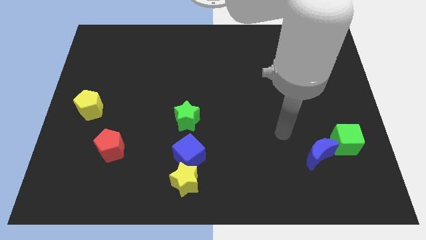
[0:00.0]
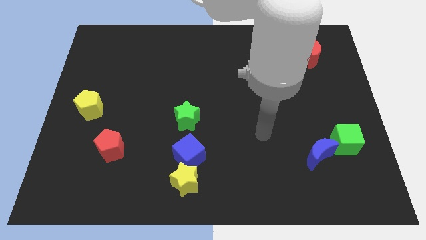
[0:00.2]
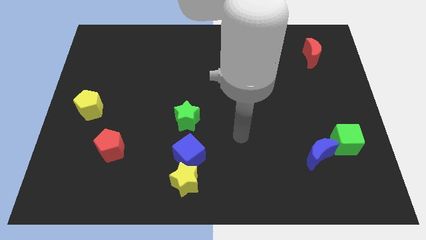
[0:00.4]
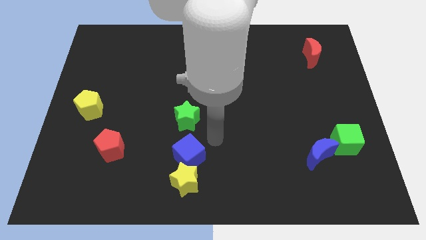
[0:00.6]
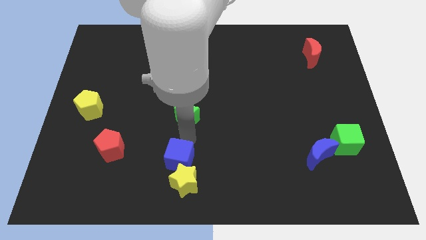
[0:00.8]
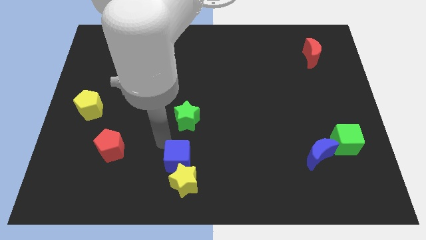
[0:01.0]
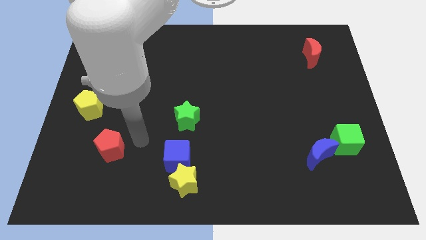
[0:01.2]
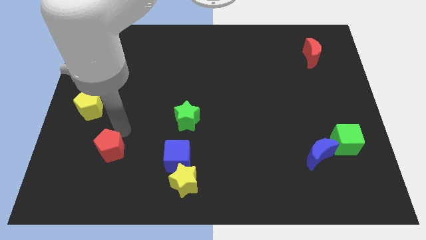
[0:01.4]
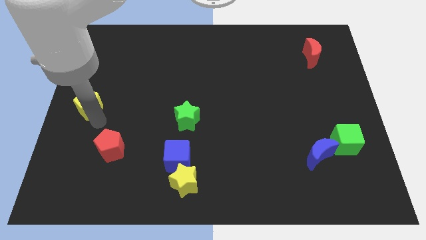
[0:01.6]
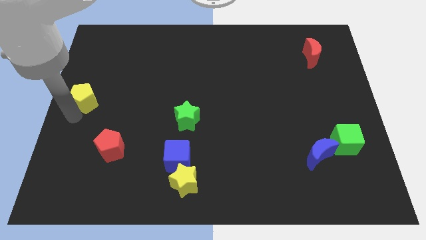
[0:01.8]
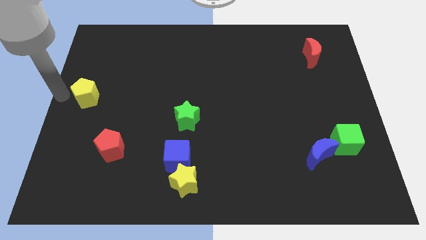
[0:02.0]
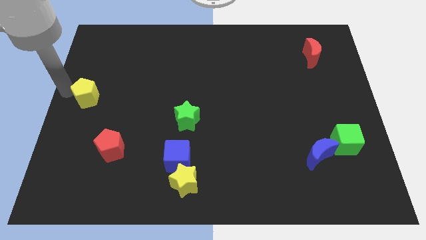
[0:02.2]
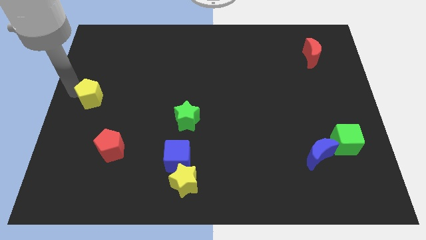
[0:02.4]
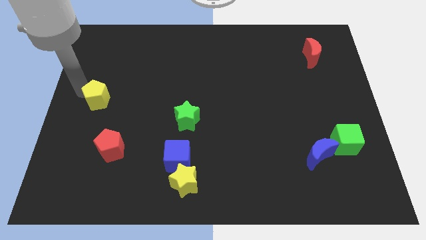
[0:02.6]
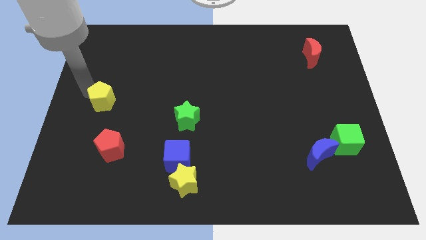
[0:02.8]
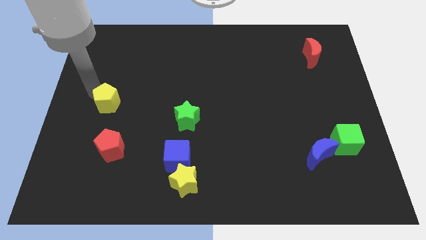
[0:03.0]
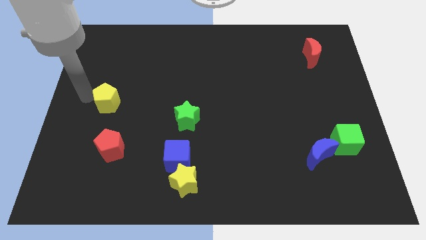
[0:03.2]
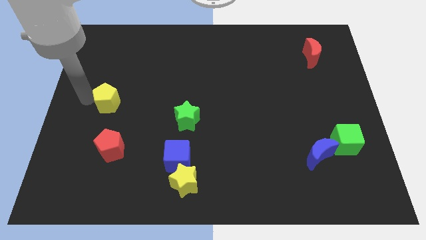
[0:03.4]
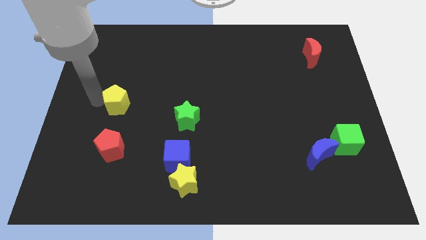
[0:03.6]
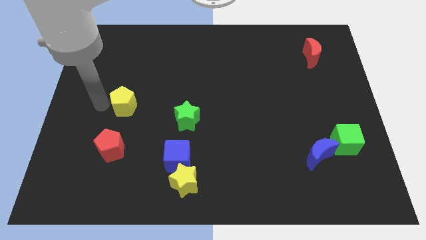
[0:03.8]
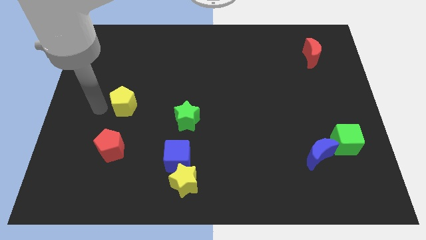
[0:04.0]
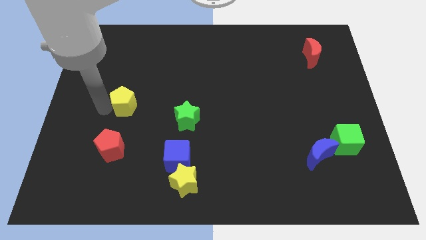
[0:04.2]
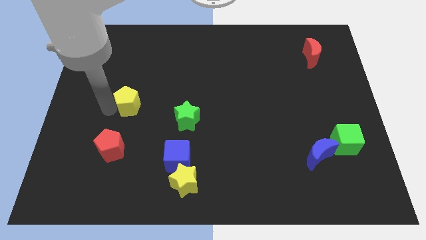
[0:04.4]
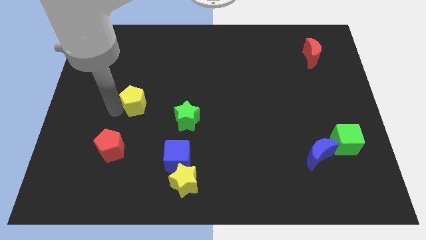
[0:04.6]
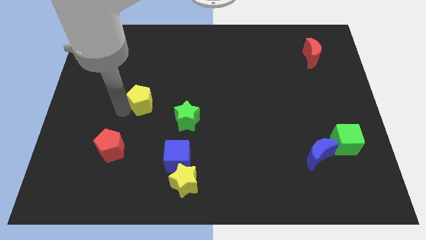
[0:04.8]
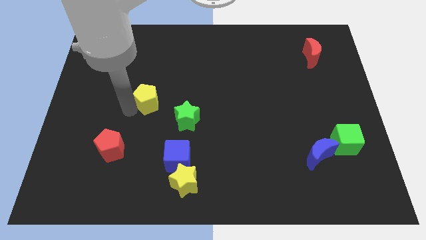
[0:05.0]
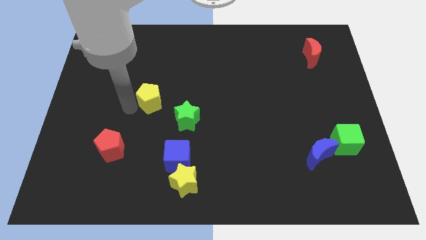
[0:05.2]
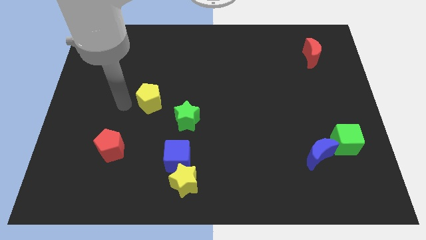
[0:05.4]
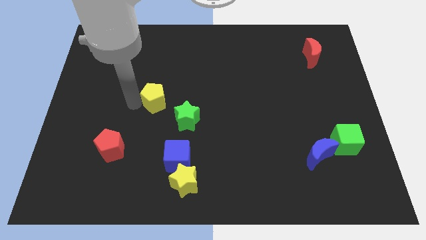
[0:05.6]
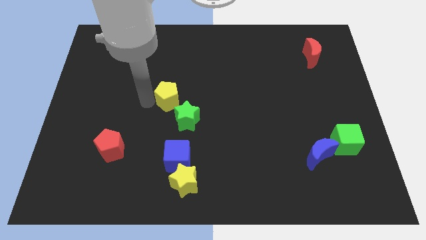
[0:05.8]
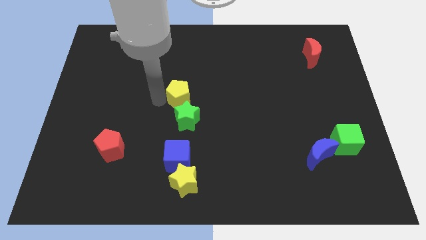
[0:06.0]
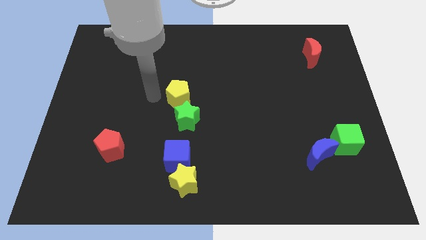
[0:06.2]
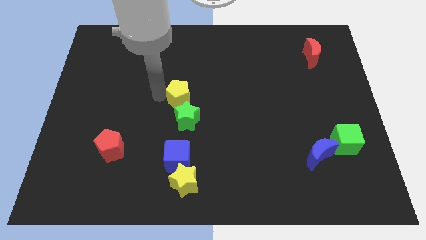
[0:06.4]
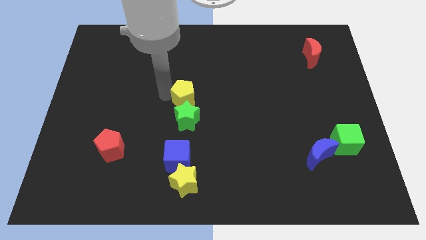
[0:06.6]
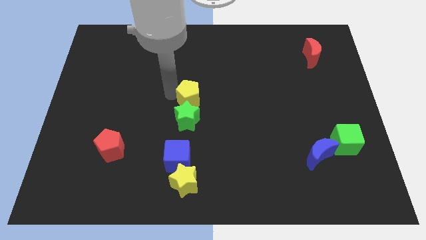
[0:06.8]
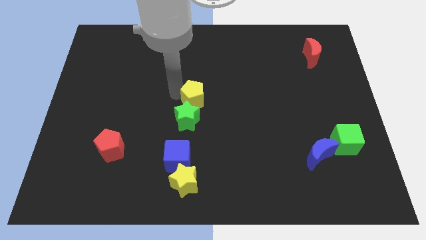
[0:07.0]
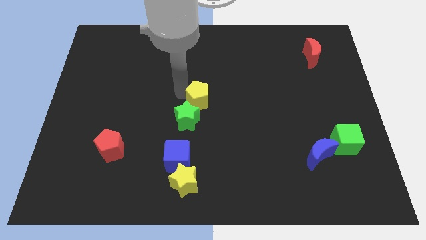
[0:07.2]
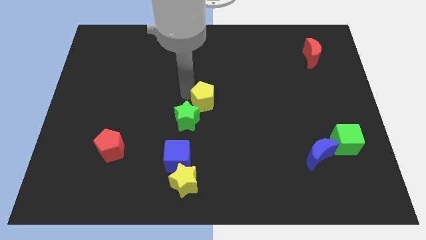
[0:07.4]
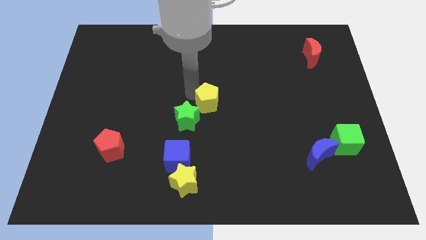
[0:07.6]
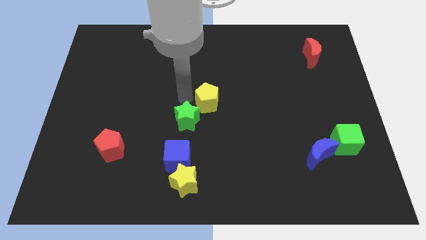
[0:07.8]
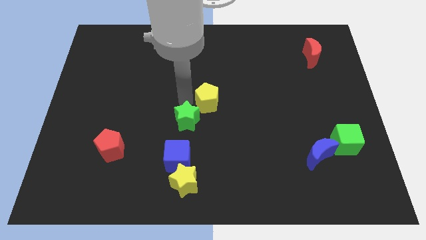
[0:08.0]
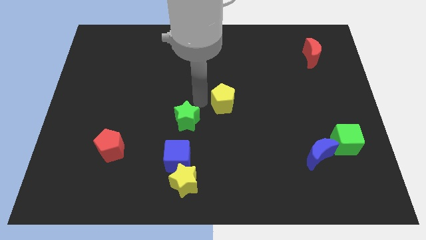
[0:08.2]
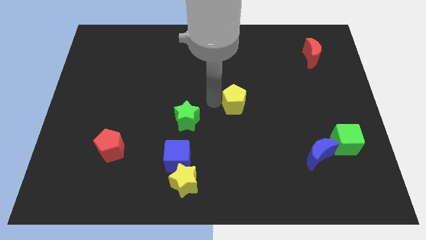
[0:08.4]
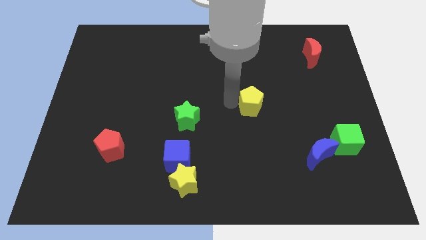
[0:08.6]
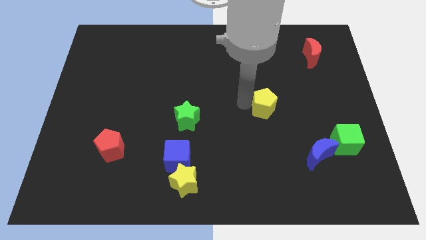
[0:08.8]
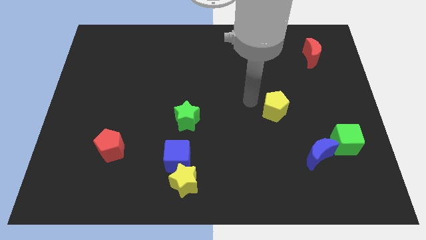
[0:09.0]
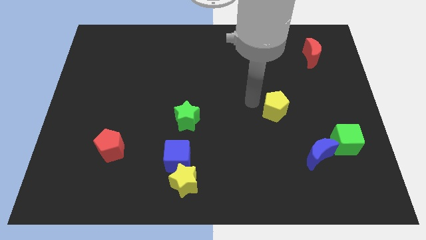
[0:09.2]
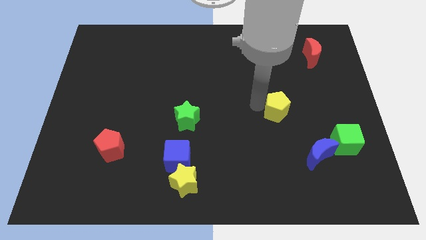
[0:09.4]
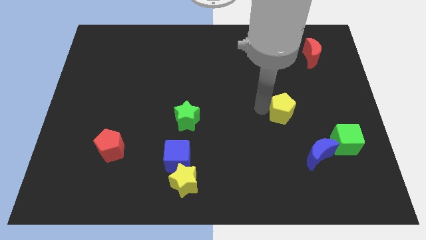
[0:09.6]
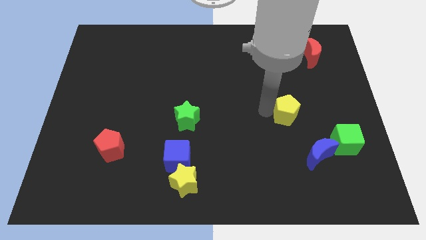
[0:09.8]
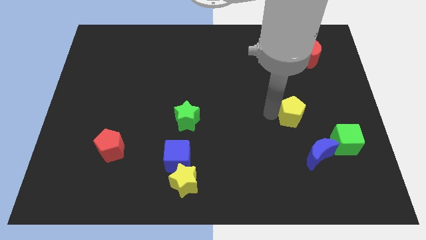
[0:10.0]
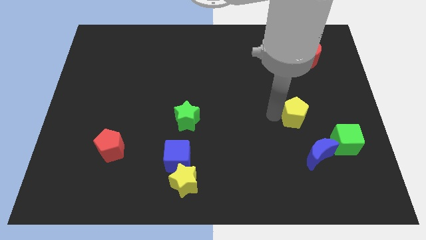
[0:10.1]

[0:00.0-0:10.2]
push the yellow pentagon to the top left of the green cube

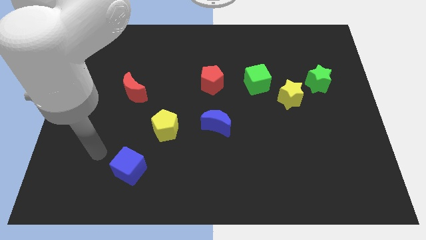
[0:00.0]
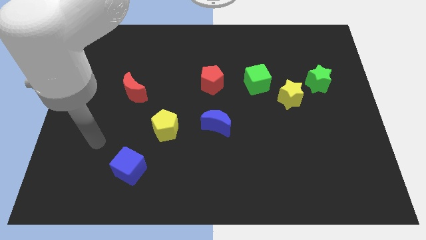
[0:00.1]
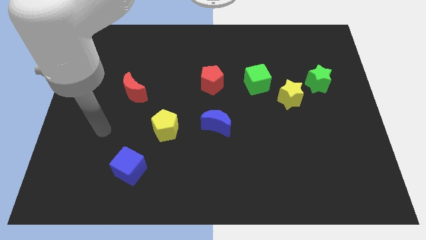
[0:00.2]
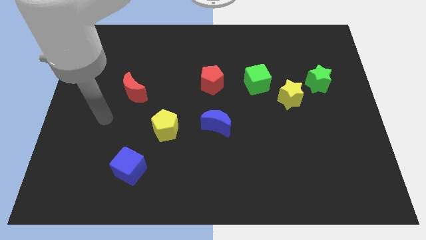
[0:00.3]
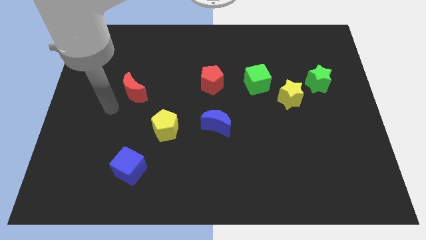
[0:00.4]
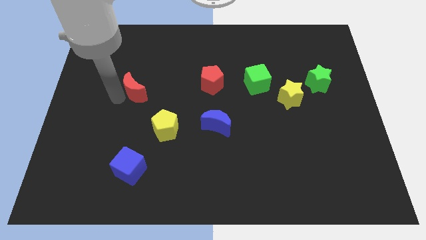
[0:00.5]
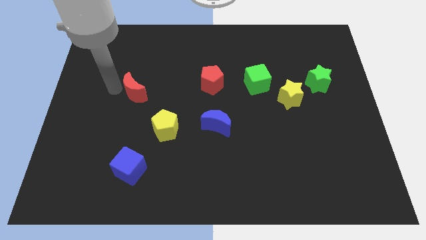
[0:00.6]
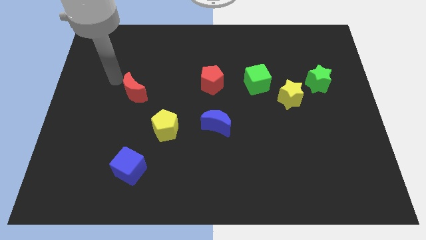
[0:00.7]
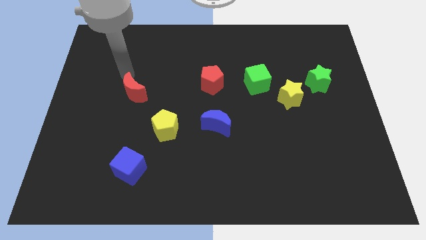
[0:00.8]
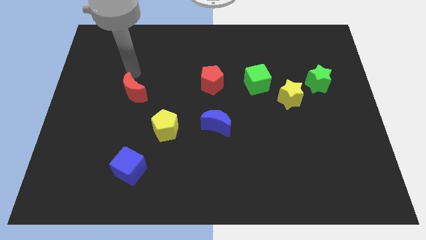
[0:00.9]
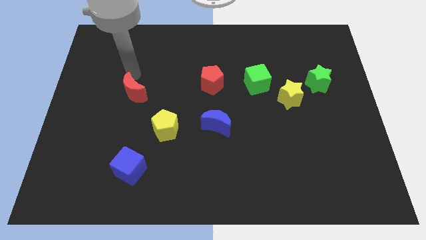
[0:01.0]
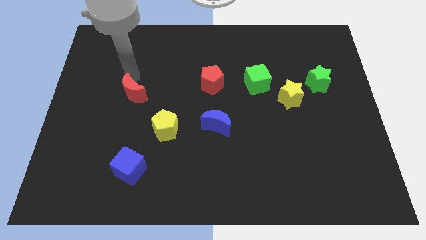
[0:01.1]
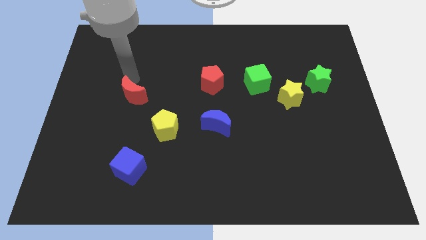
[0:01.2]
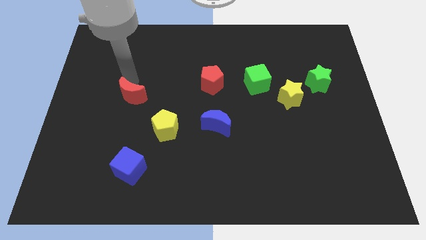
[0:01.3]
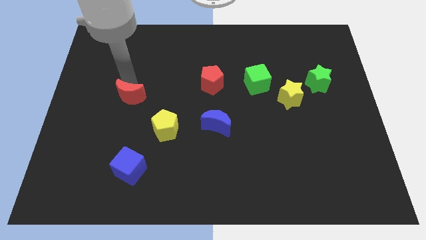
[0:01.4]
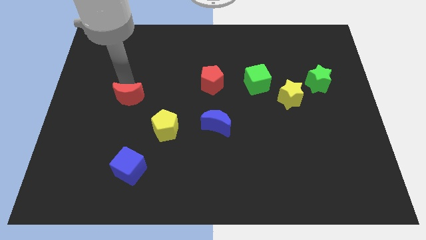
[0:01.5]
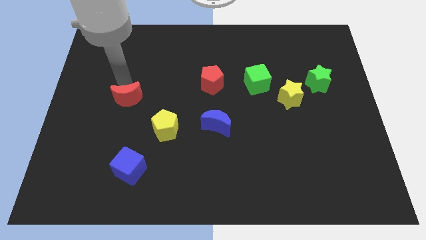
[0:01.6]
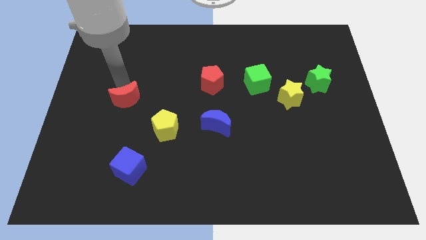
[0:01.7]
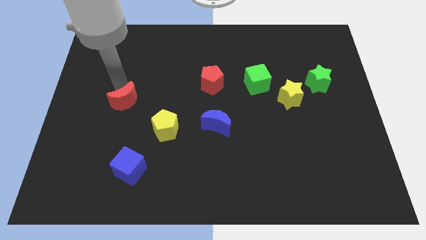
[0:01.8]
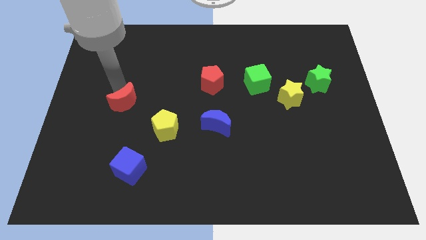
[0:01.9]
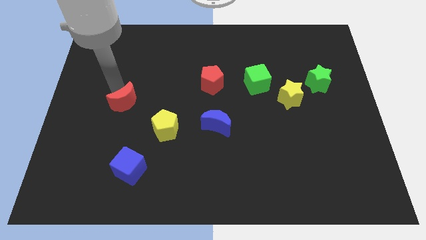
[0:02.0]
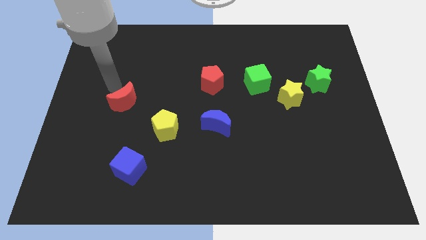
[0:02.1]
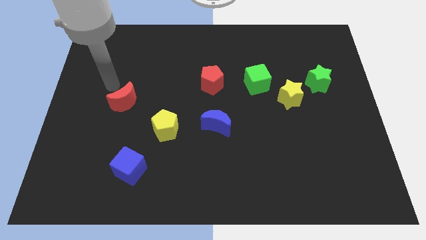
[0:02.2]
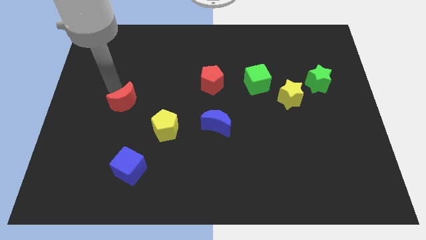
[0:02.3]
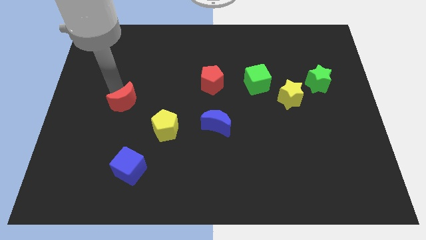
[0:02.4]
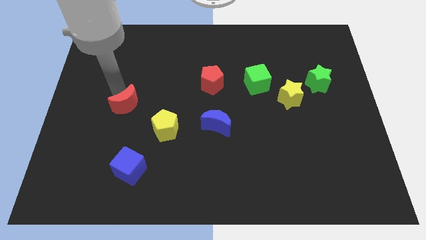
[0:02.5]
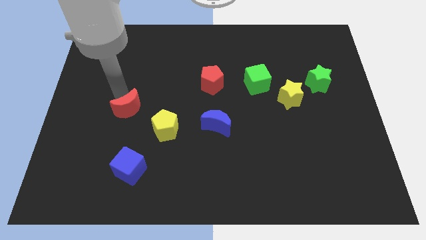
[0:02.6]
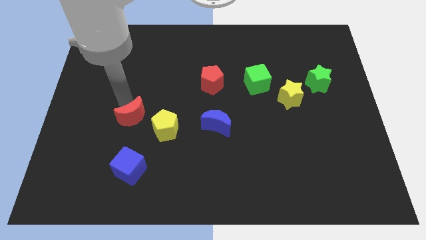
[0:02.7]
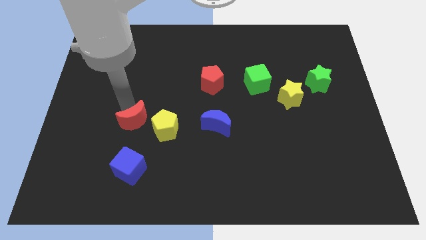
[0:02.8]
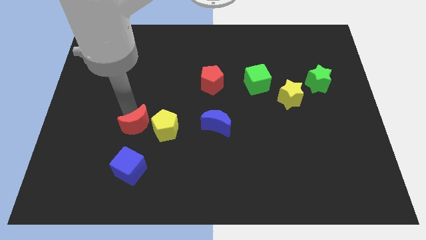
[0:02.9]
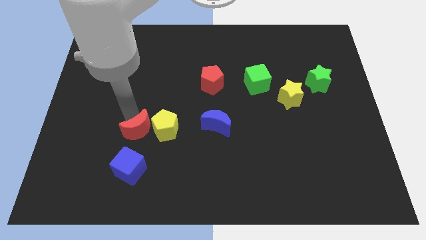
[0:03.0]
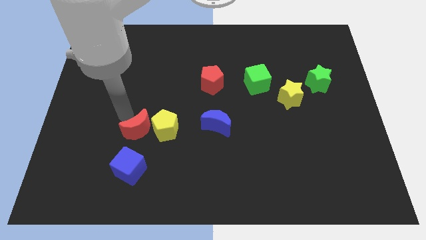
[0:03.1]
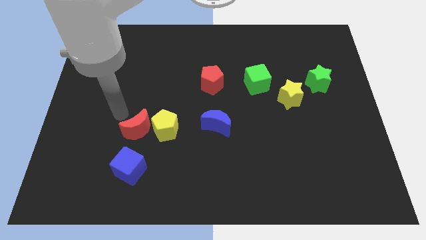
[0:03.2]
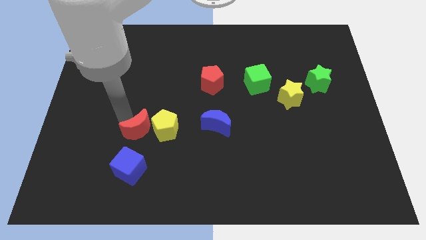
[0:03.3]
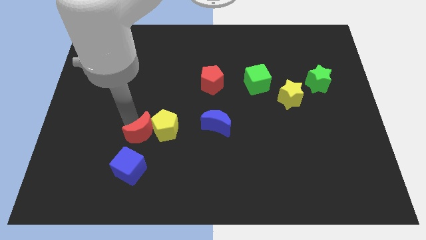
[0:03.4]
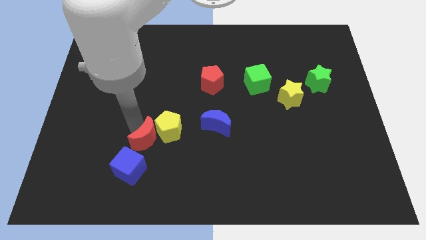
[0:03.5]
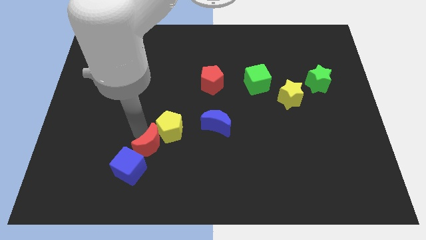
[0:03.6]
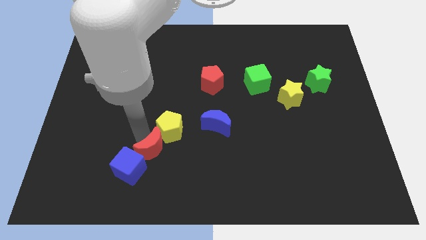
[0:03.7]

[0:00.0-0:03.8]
put the red moon to the right of the blue cube
